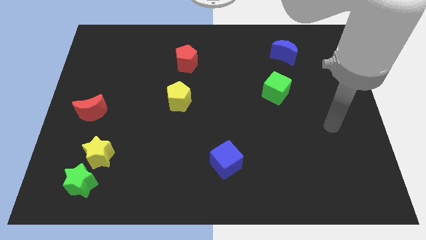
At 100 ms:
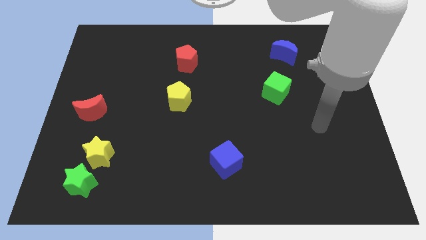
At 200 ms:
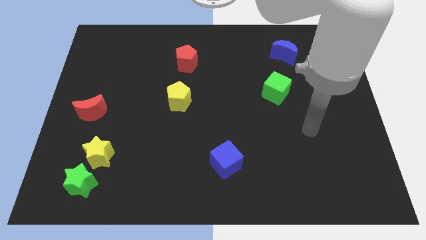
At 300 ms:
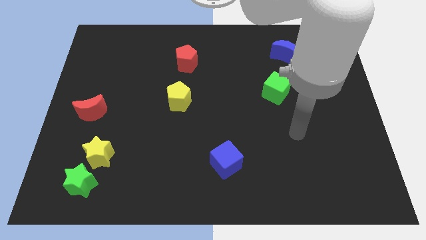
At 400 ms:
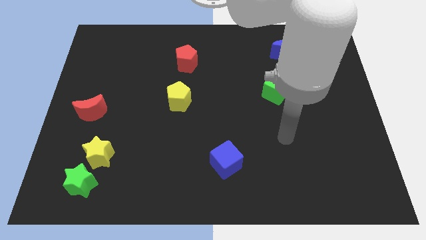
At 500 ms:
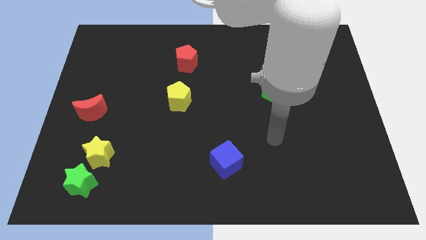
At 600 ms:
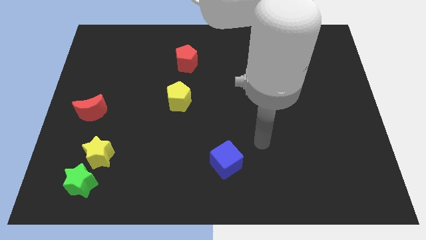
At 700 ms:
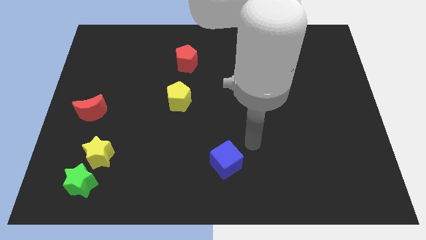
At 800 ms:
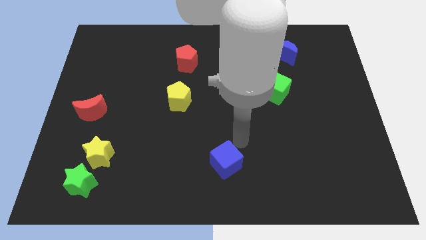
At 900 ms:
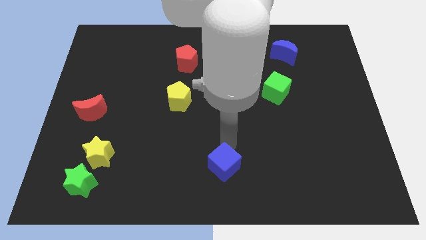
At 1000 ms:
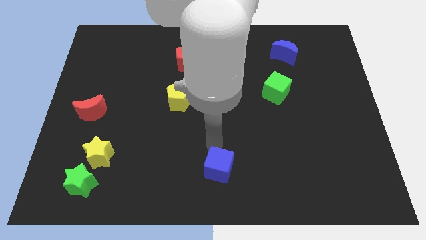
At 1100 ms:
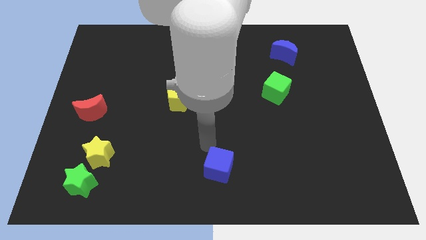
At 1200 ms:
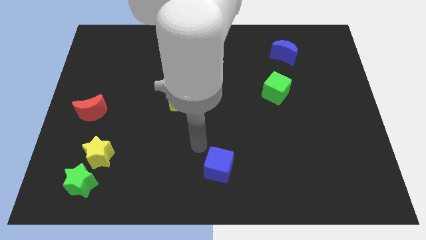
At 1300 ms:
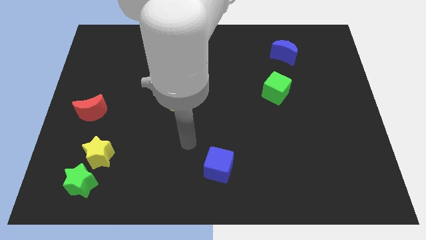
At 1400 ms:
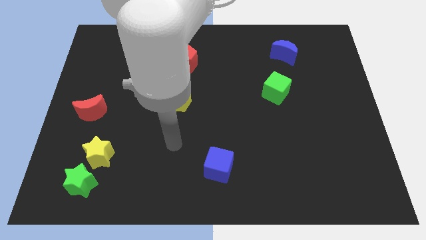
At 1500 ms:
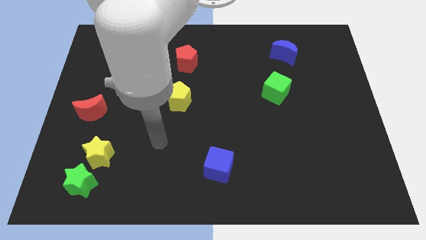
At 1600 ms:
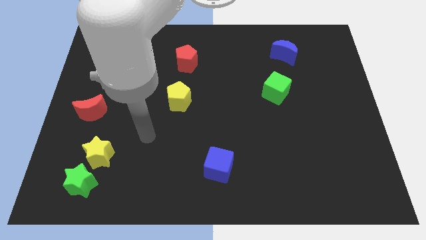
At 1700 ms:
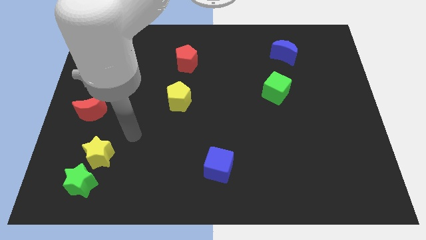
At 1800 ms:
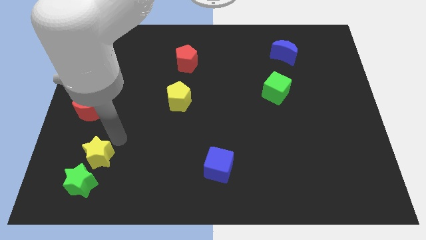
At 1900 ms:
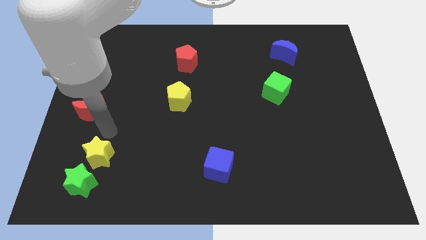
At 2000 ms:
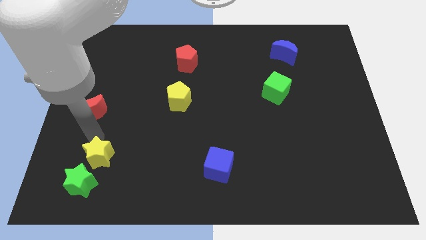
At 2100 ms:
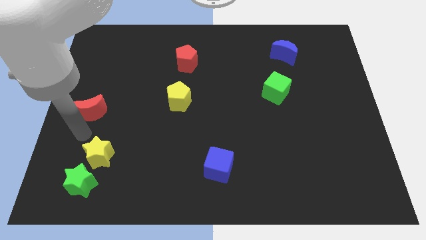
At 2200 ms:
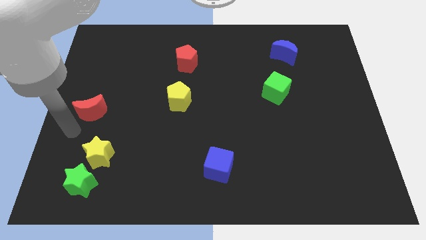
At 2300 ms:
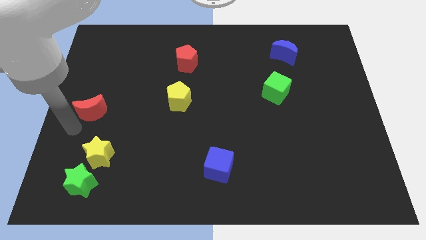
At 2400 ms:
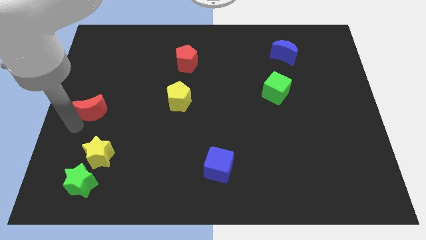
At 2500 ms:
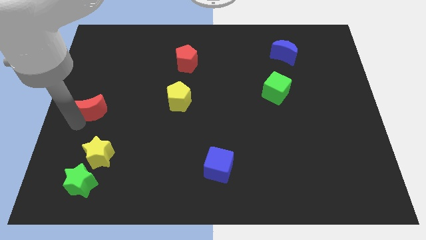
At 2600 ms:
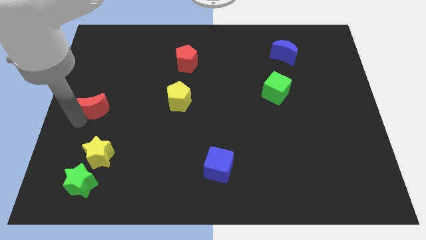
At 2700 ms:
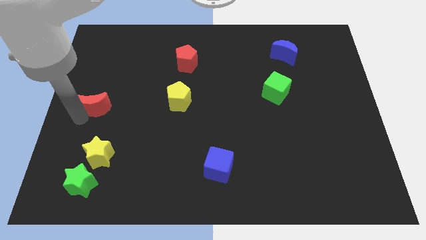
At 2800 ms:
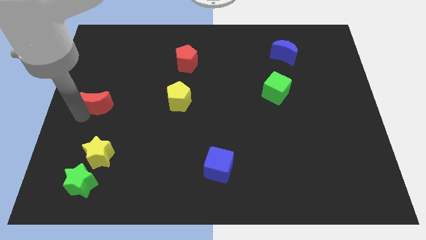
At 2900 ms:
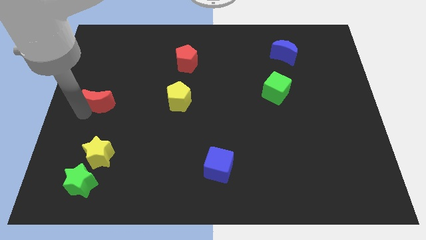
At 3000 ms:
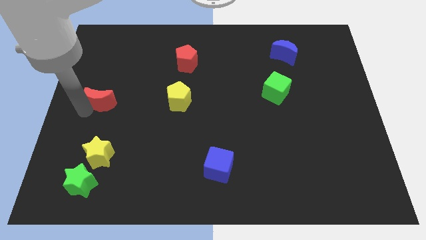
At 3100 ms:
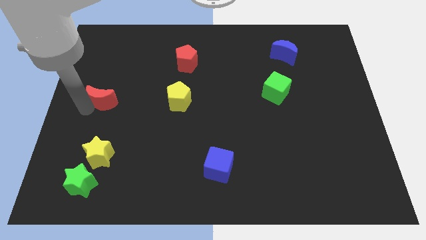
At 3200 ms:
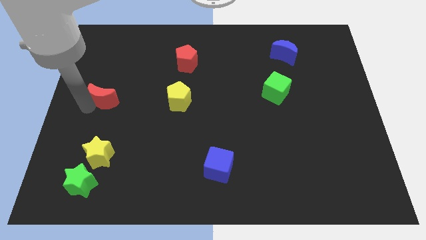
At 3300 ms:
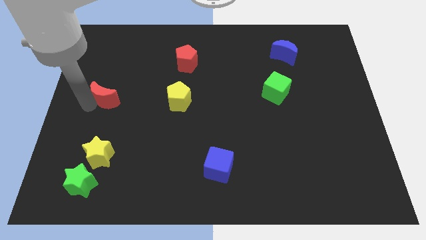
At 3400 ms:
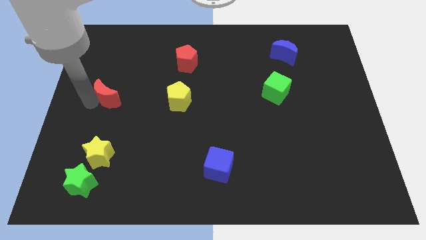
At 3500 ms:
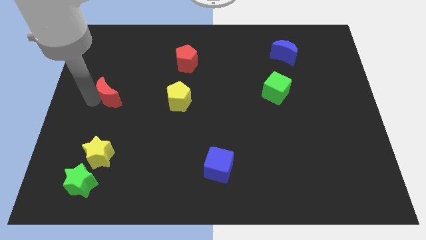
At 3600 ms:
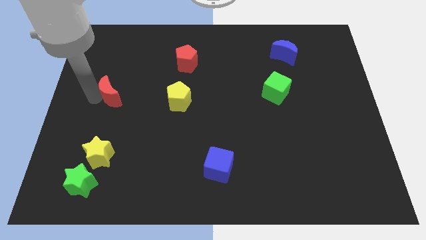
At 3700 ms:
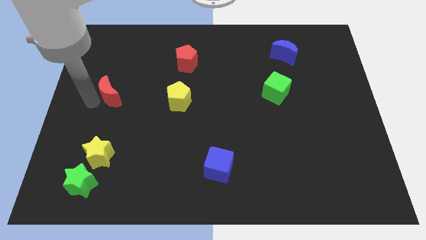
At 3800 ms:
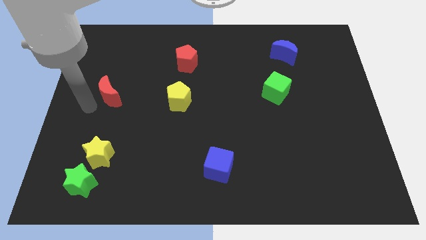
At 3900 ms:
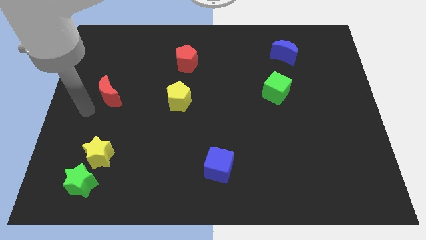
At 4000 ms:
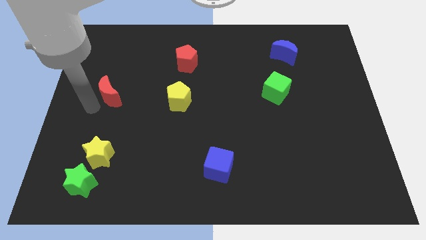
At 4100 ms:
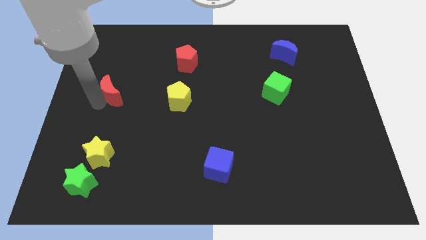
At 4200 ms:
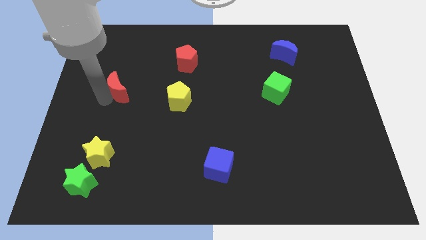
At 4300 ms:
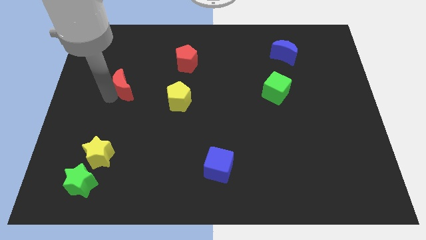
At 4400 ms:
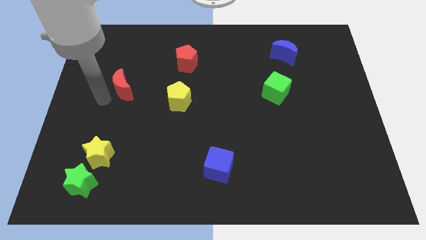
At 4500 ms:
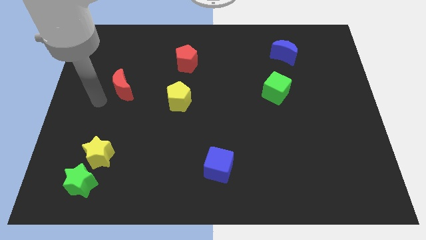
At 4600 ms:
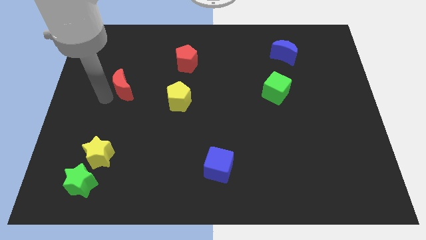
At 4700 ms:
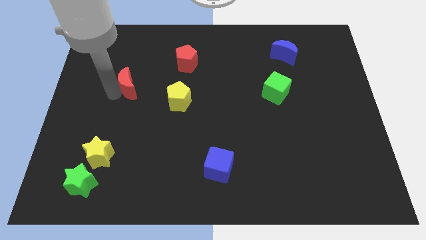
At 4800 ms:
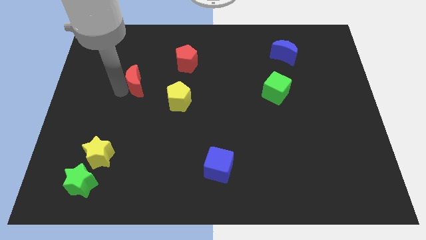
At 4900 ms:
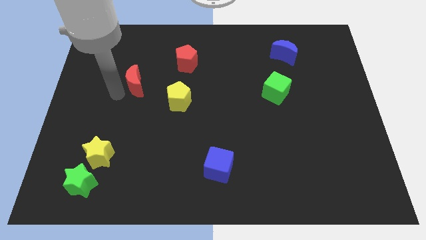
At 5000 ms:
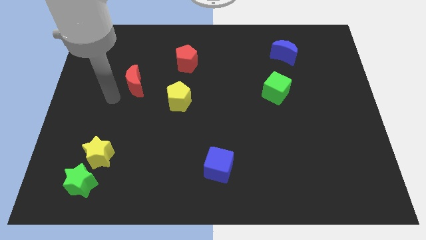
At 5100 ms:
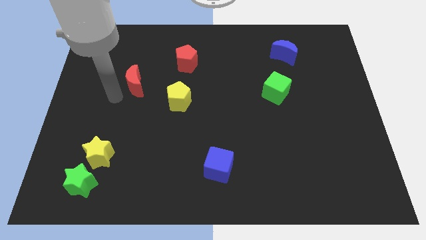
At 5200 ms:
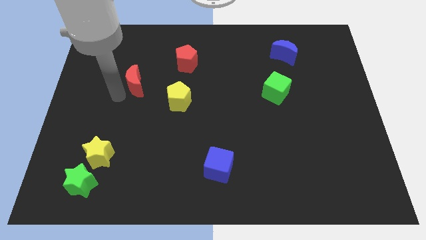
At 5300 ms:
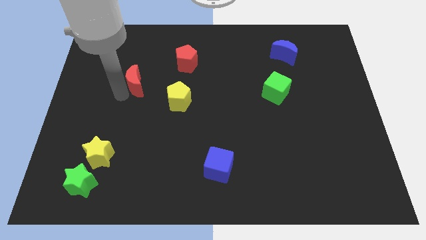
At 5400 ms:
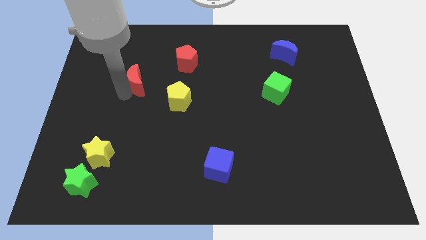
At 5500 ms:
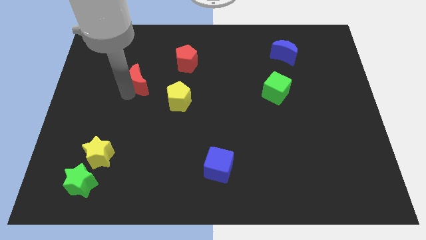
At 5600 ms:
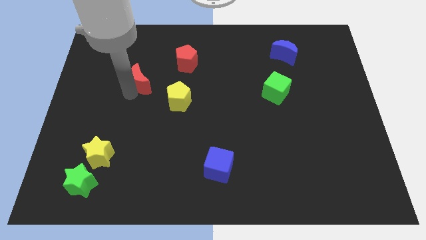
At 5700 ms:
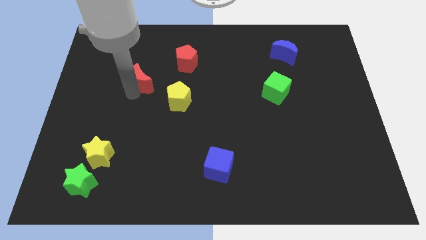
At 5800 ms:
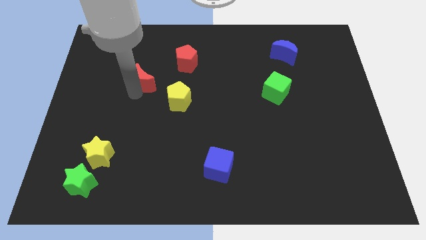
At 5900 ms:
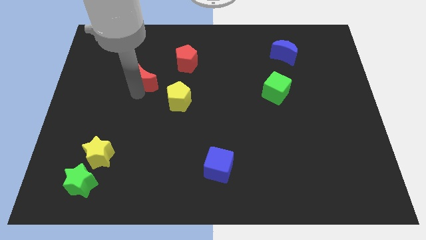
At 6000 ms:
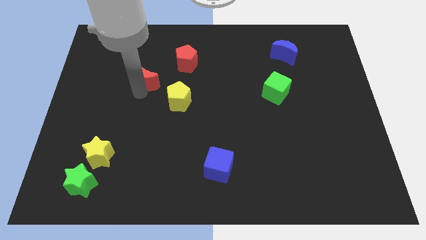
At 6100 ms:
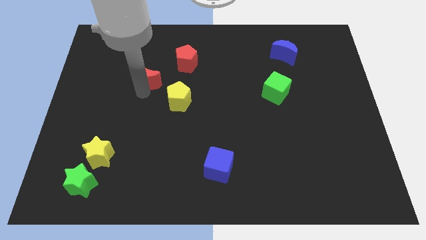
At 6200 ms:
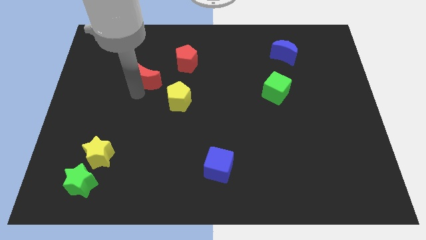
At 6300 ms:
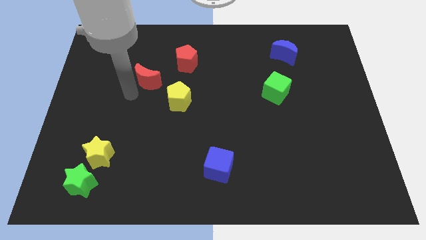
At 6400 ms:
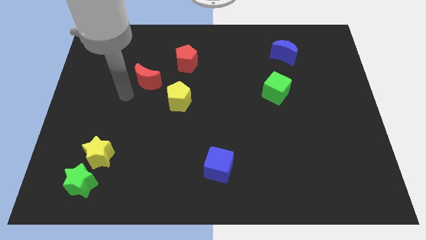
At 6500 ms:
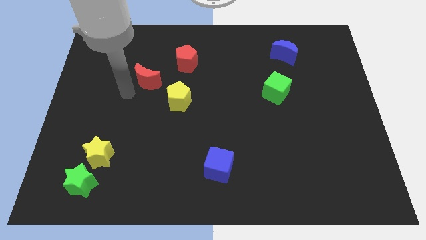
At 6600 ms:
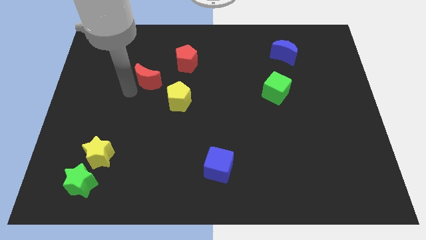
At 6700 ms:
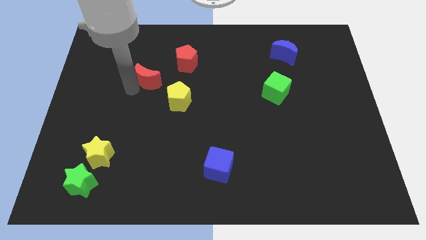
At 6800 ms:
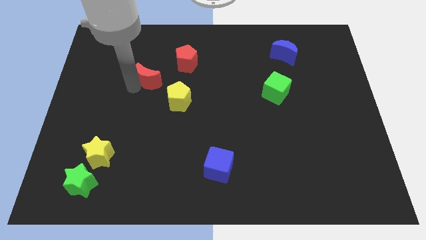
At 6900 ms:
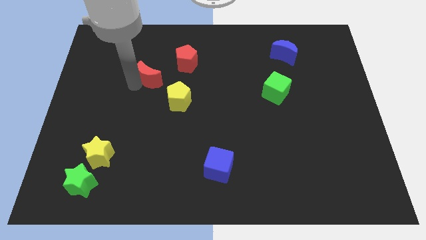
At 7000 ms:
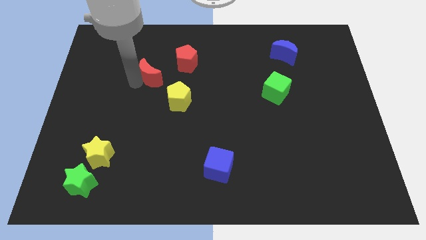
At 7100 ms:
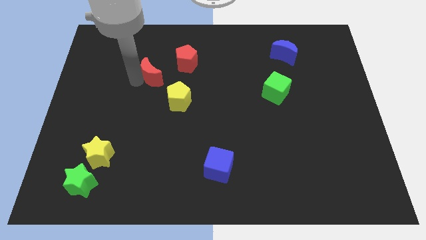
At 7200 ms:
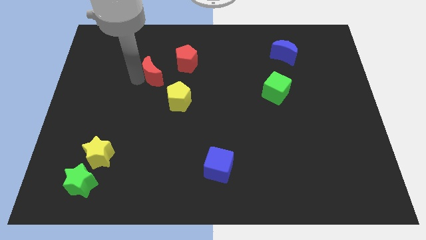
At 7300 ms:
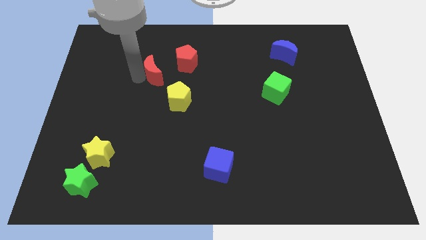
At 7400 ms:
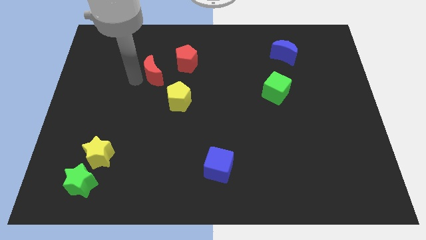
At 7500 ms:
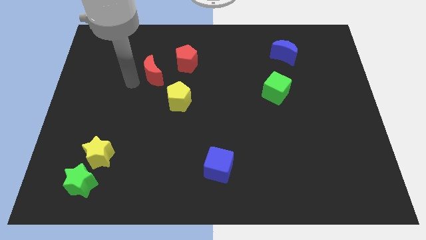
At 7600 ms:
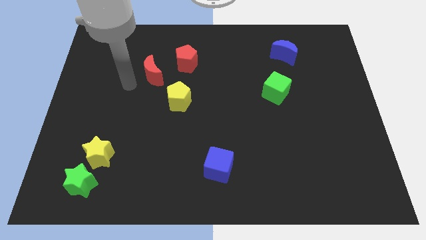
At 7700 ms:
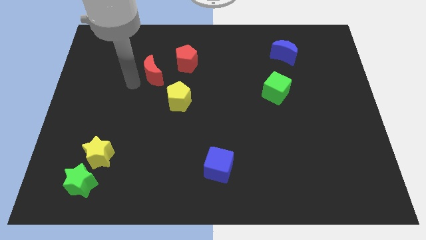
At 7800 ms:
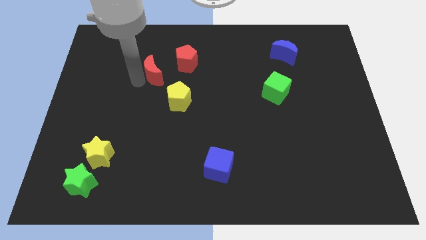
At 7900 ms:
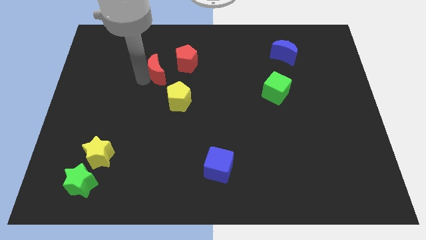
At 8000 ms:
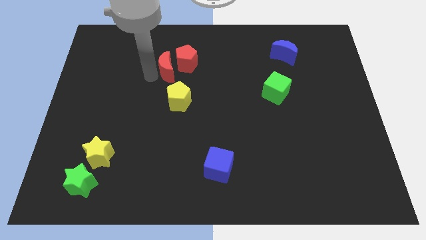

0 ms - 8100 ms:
put the red moon to the red pentagon
